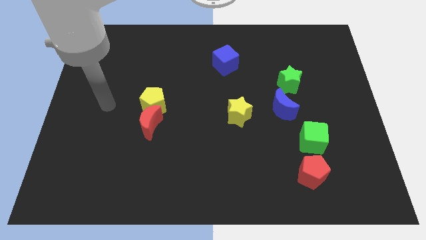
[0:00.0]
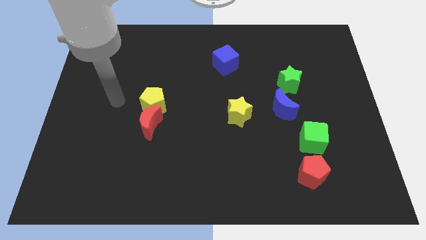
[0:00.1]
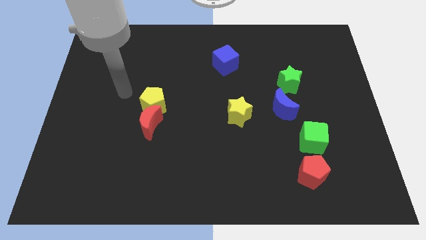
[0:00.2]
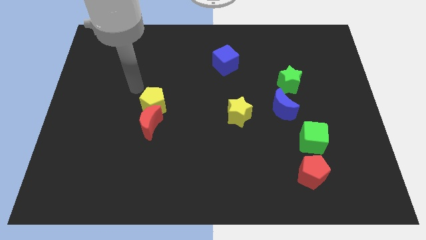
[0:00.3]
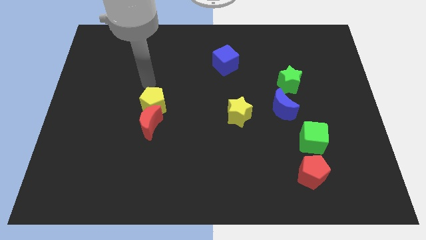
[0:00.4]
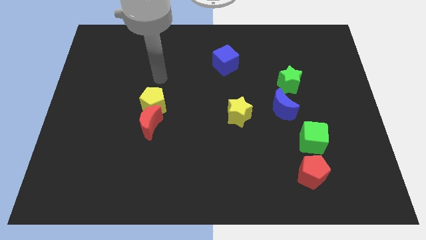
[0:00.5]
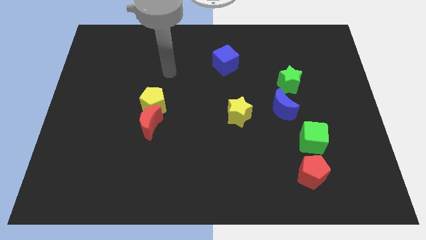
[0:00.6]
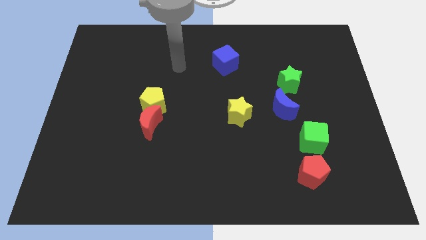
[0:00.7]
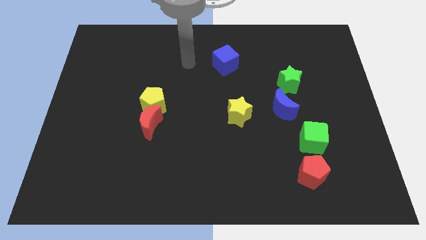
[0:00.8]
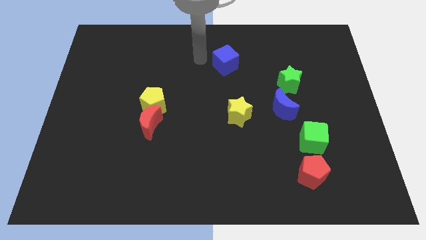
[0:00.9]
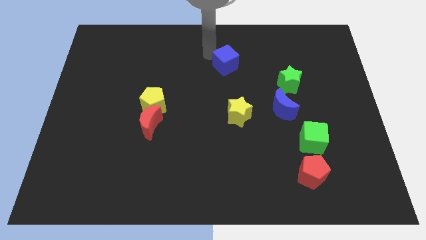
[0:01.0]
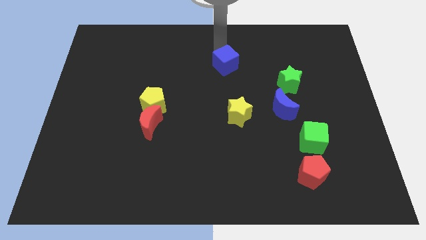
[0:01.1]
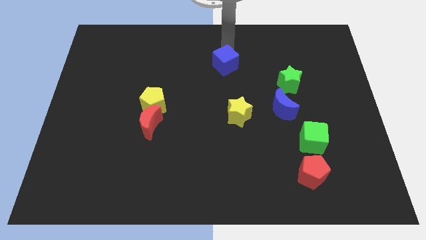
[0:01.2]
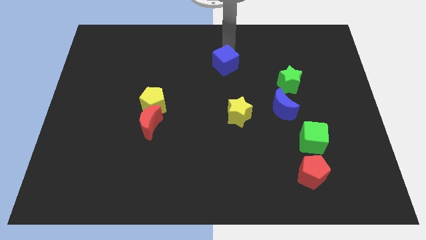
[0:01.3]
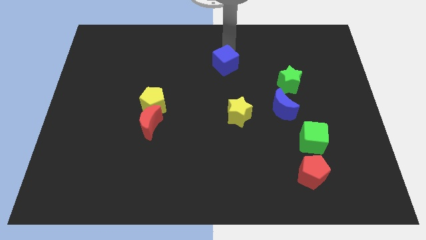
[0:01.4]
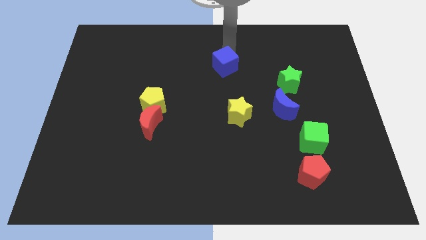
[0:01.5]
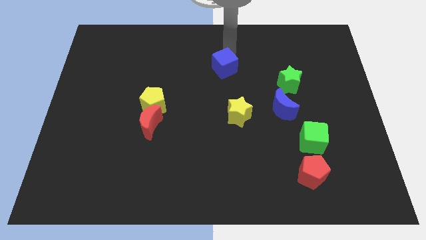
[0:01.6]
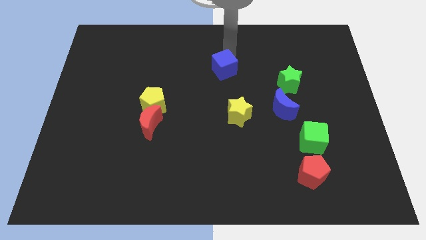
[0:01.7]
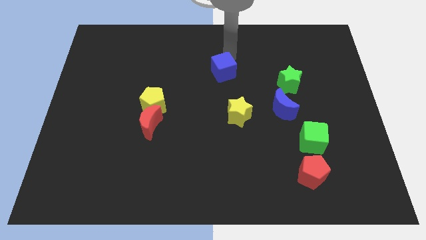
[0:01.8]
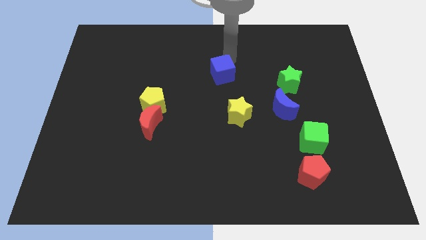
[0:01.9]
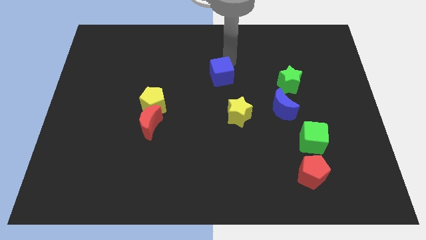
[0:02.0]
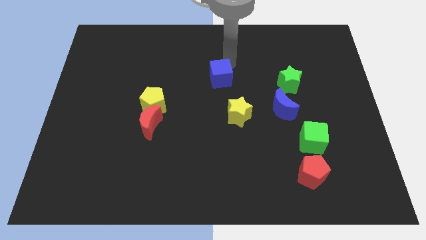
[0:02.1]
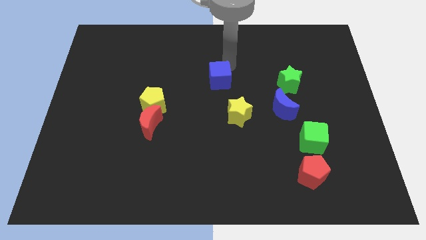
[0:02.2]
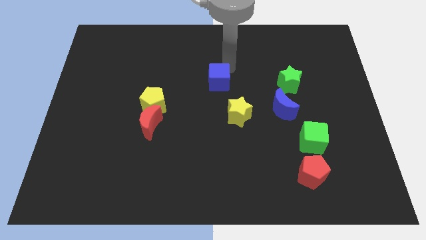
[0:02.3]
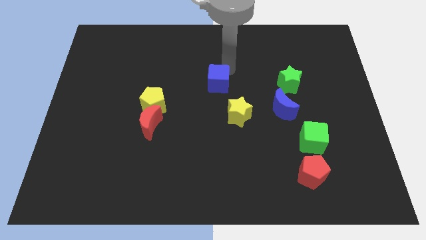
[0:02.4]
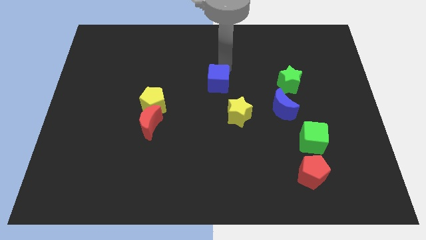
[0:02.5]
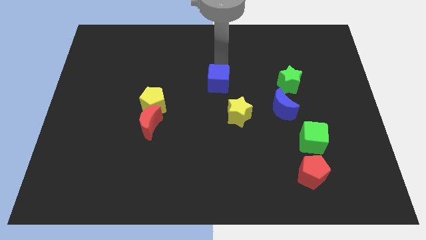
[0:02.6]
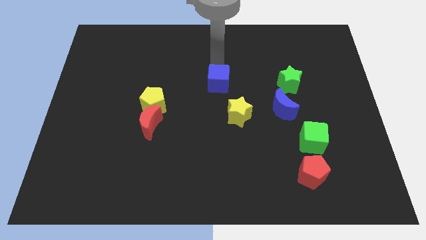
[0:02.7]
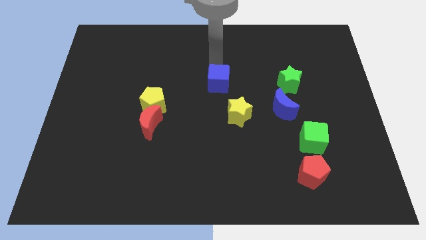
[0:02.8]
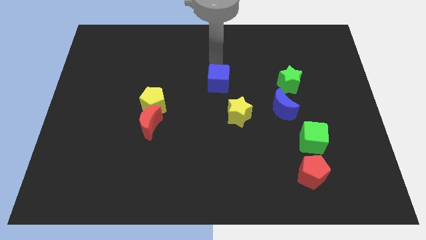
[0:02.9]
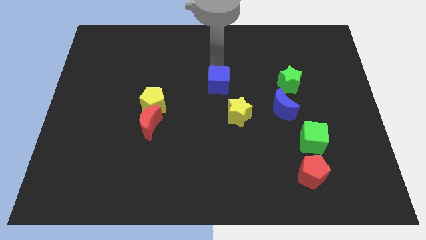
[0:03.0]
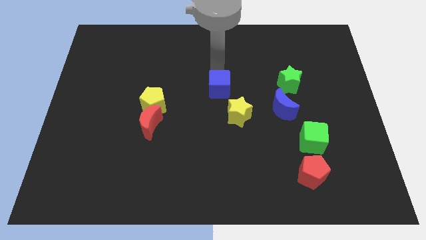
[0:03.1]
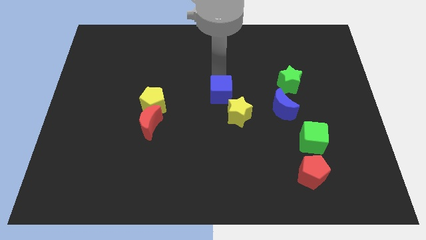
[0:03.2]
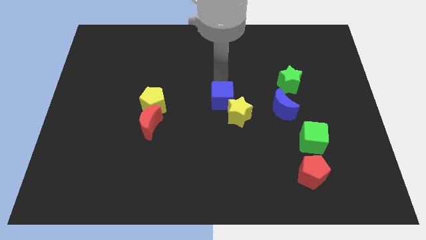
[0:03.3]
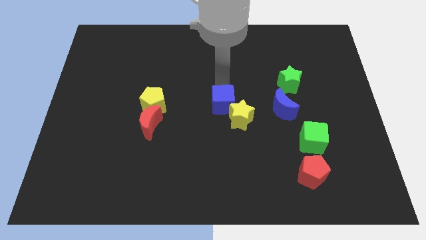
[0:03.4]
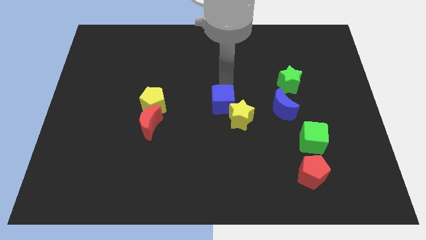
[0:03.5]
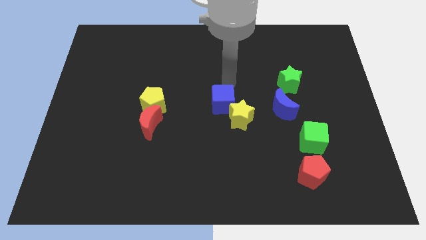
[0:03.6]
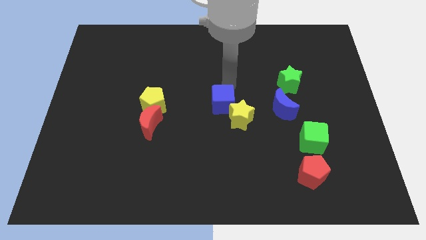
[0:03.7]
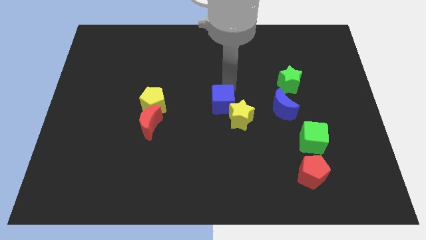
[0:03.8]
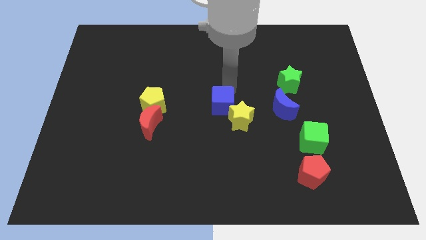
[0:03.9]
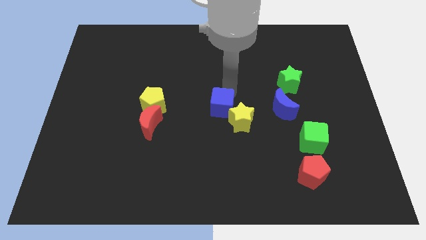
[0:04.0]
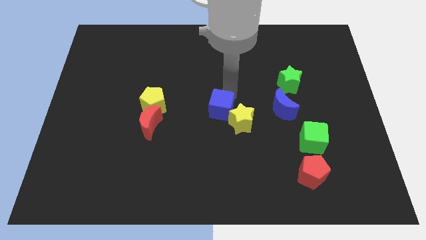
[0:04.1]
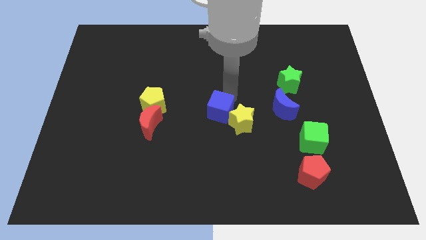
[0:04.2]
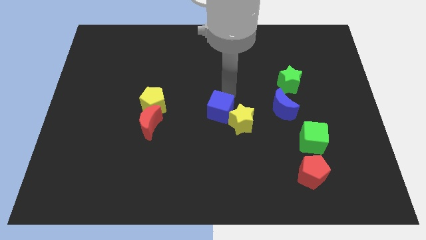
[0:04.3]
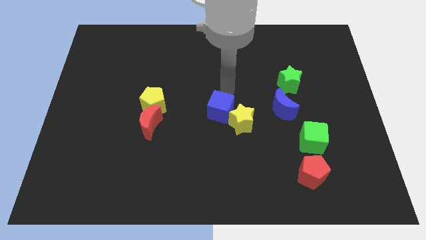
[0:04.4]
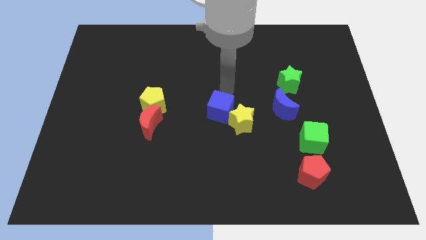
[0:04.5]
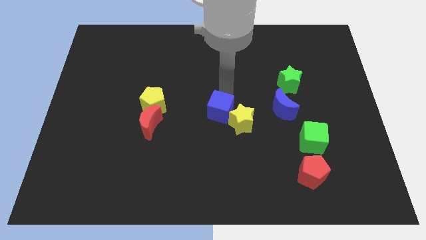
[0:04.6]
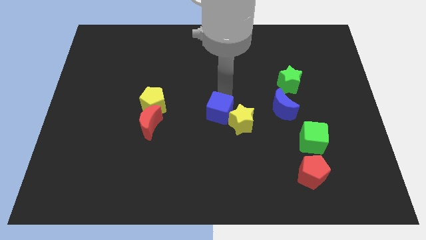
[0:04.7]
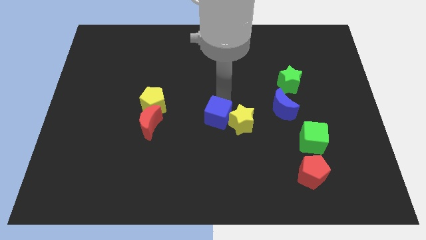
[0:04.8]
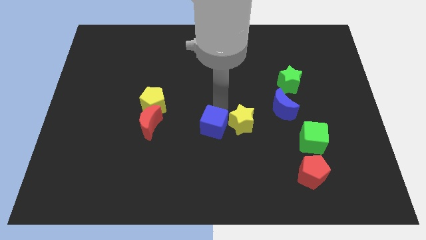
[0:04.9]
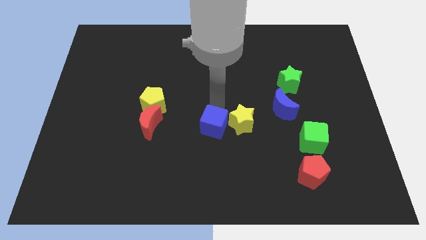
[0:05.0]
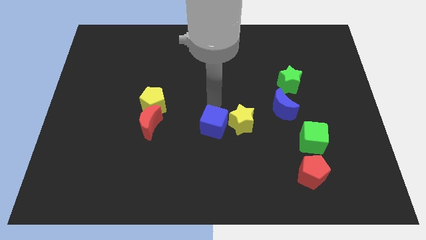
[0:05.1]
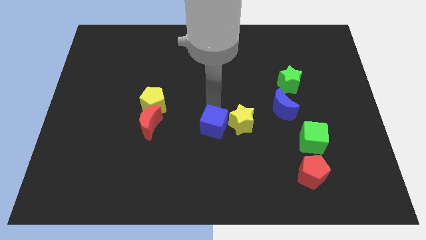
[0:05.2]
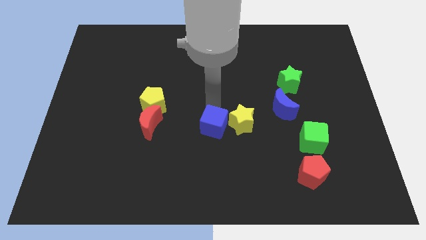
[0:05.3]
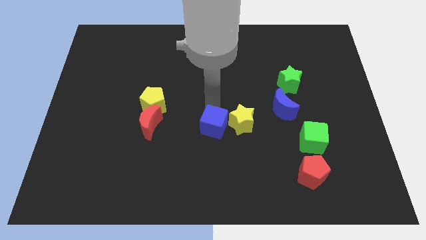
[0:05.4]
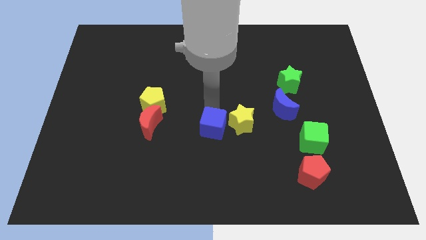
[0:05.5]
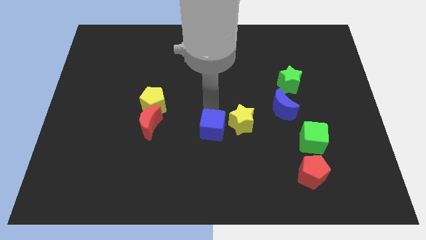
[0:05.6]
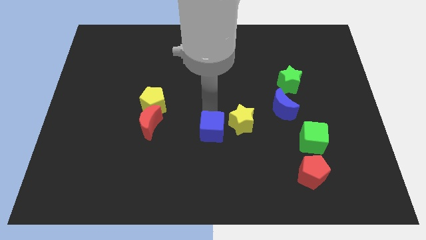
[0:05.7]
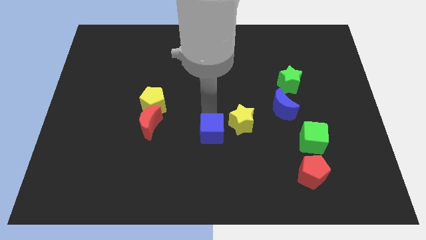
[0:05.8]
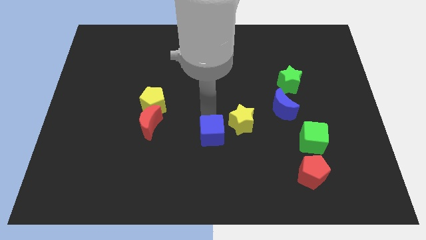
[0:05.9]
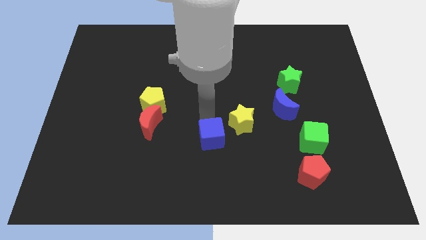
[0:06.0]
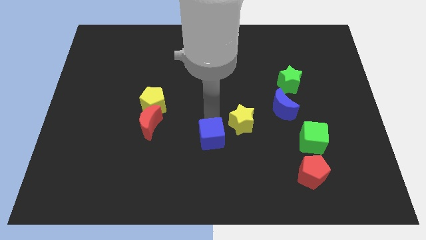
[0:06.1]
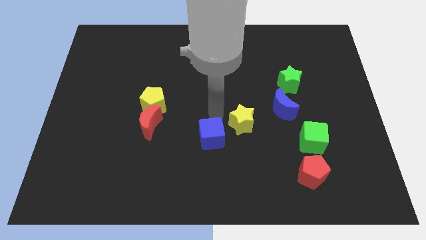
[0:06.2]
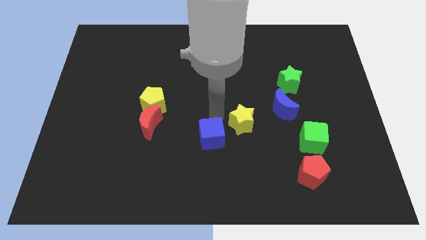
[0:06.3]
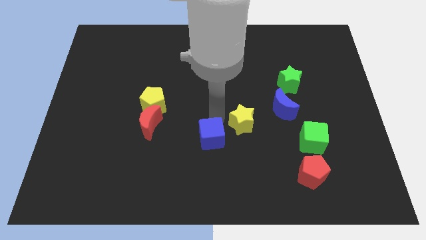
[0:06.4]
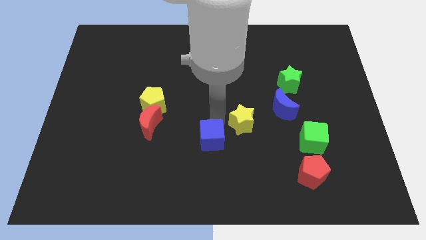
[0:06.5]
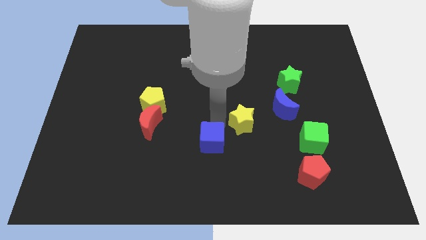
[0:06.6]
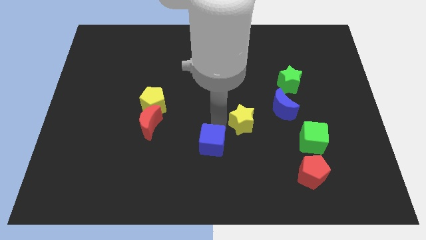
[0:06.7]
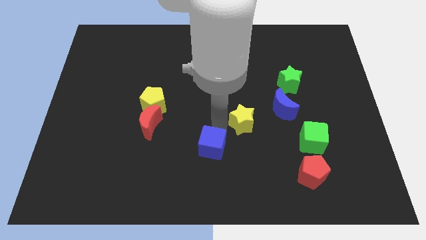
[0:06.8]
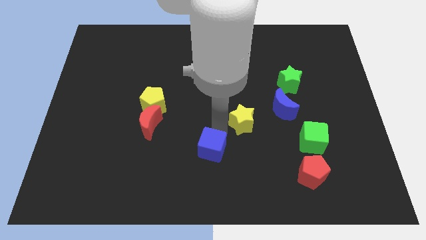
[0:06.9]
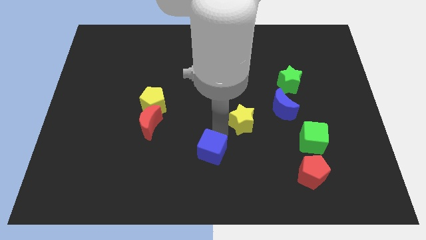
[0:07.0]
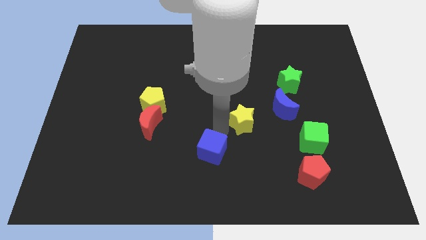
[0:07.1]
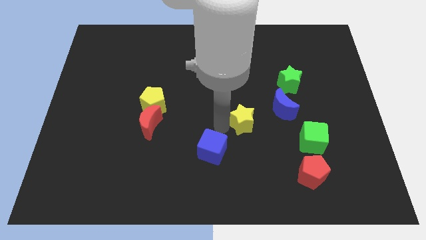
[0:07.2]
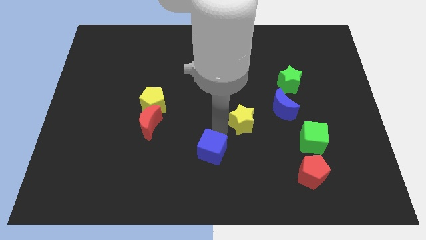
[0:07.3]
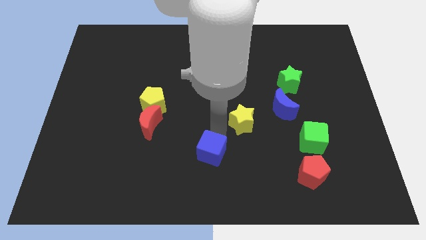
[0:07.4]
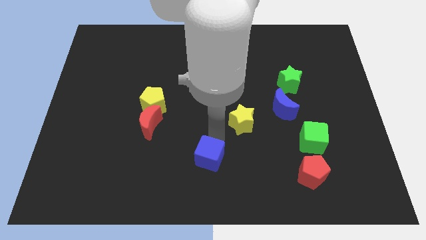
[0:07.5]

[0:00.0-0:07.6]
put the blue cube to the bottom side
